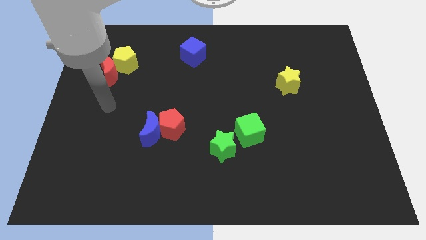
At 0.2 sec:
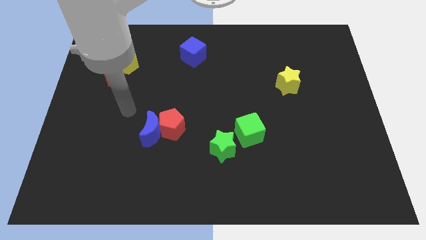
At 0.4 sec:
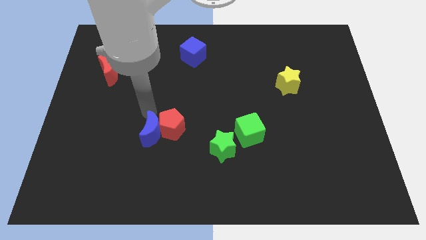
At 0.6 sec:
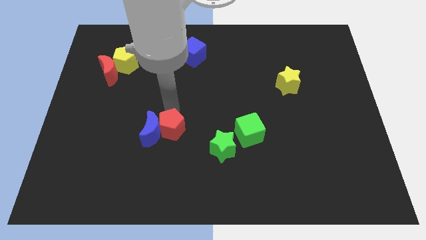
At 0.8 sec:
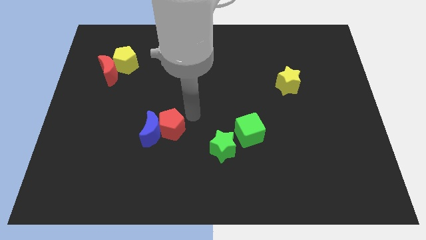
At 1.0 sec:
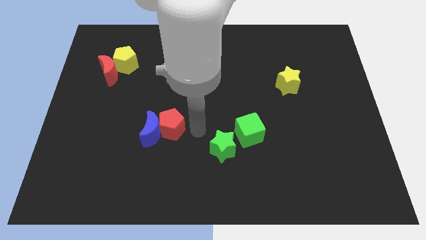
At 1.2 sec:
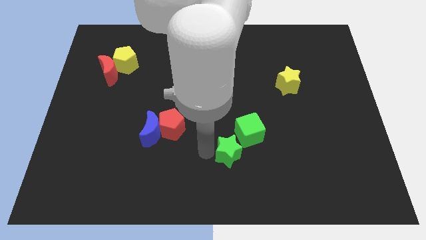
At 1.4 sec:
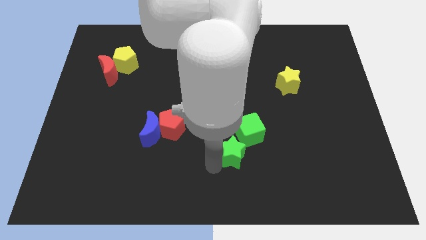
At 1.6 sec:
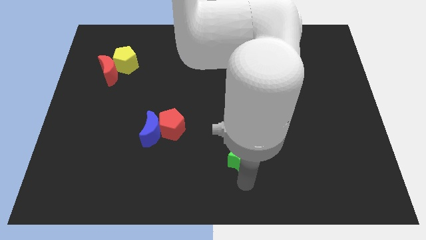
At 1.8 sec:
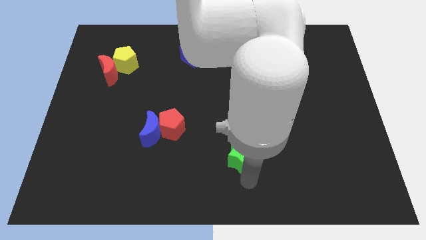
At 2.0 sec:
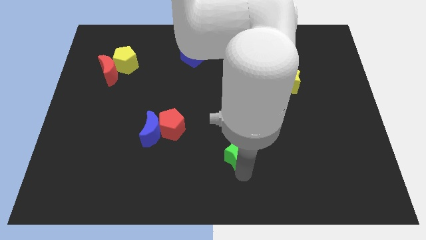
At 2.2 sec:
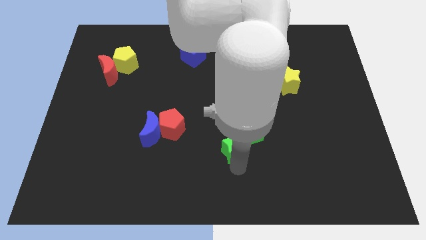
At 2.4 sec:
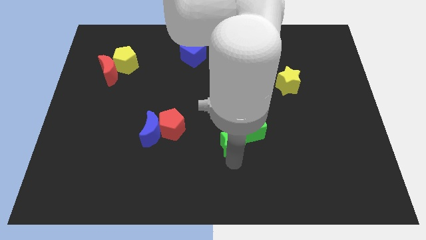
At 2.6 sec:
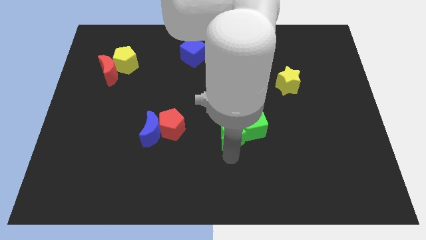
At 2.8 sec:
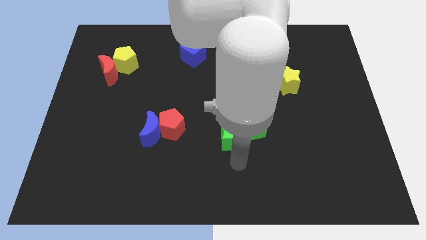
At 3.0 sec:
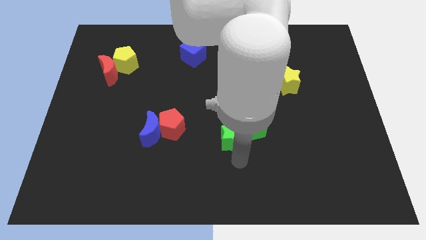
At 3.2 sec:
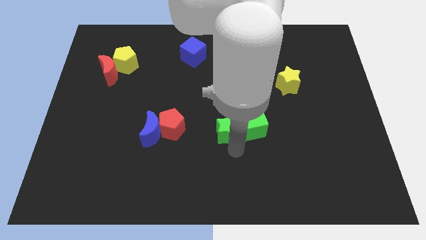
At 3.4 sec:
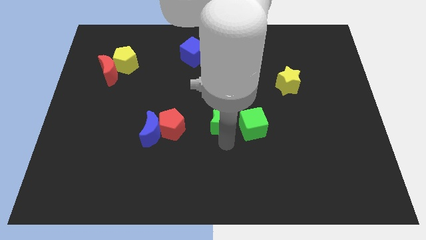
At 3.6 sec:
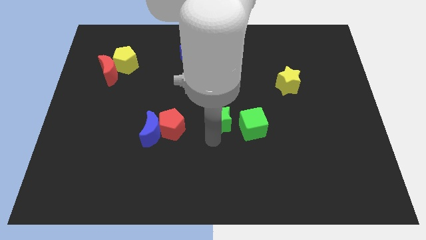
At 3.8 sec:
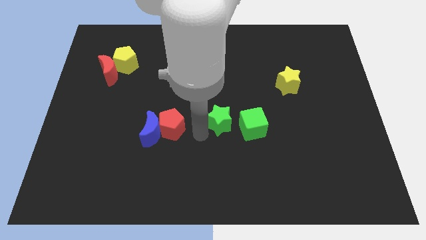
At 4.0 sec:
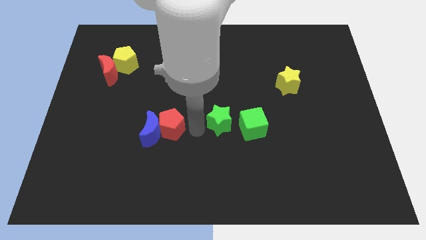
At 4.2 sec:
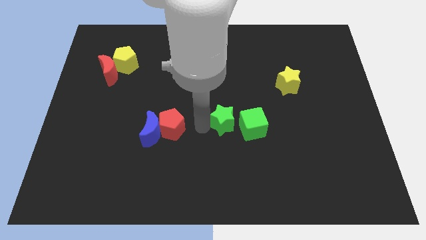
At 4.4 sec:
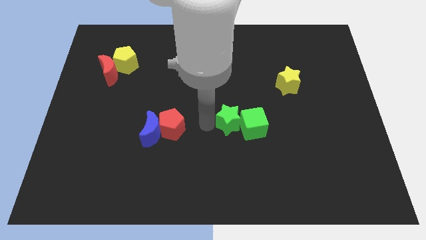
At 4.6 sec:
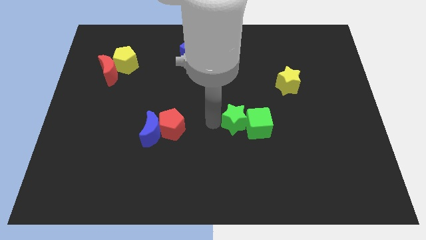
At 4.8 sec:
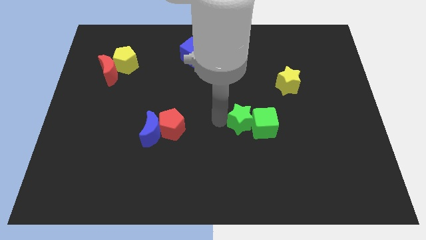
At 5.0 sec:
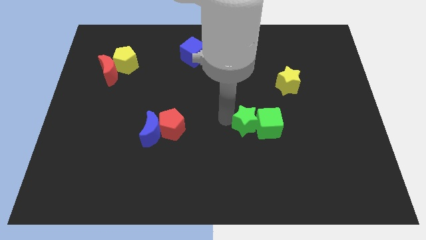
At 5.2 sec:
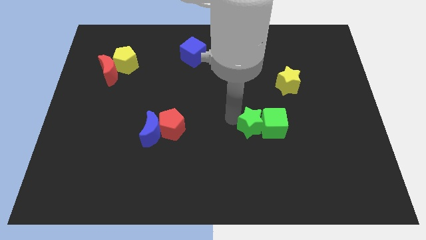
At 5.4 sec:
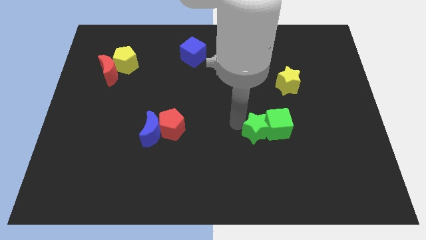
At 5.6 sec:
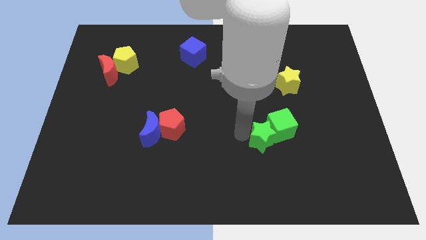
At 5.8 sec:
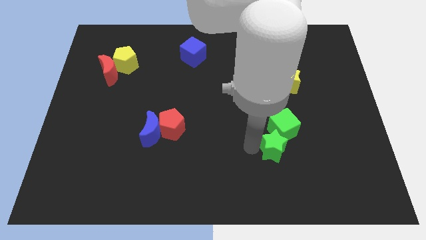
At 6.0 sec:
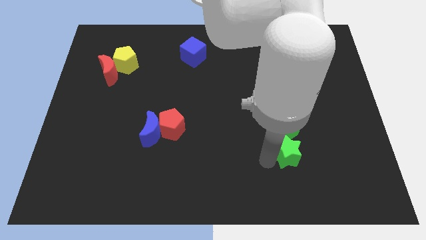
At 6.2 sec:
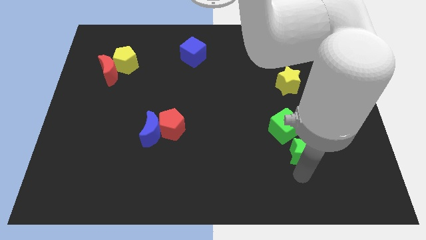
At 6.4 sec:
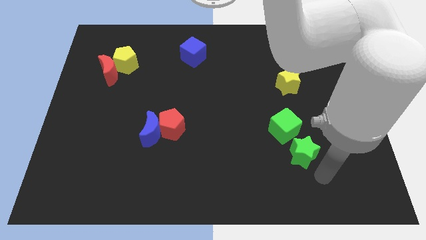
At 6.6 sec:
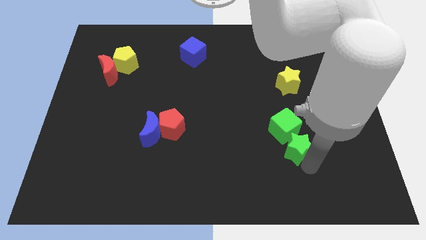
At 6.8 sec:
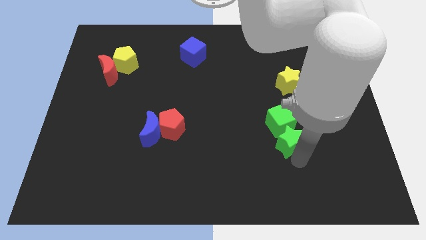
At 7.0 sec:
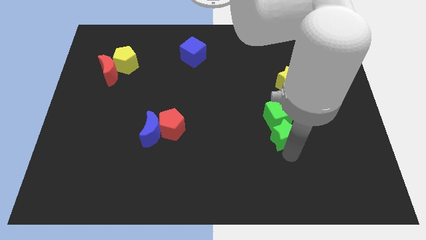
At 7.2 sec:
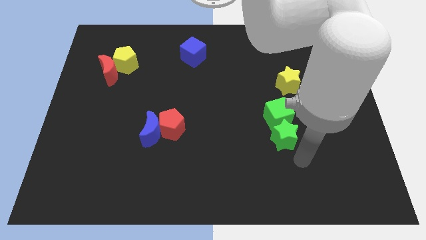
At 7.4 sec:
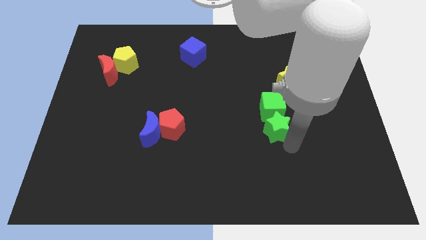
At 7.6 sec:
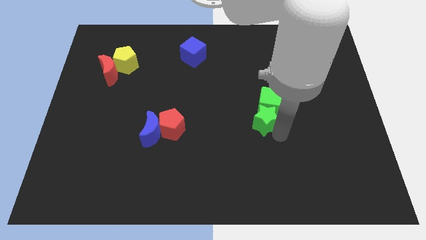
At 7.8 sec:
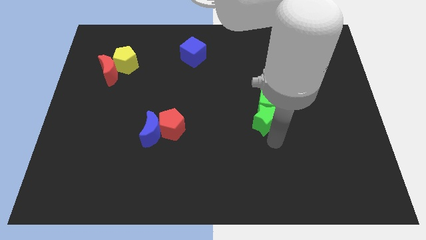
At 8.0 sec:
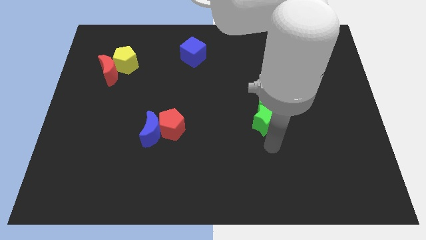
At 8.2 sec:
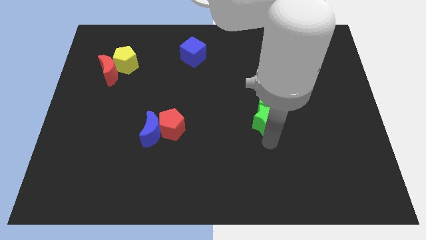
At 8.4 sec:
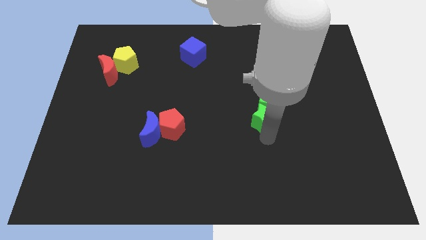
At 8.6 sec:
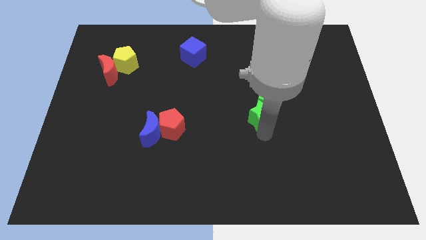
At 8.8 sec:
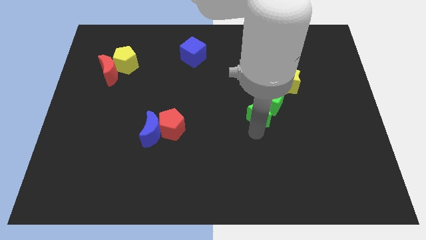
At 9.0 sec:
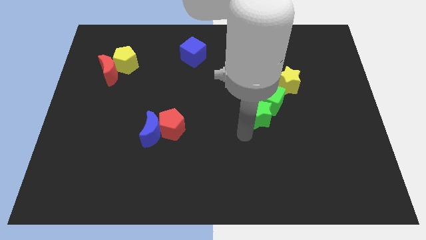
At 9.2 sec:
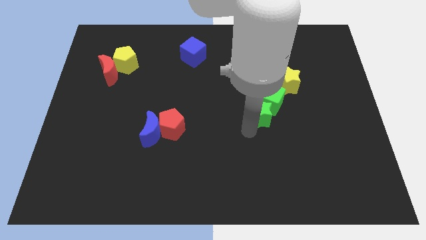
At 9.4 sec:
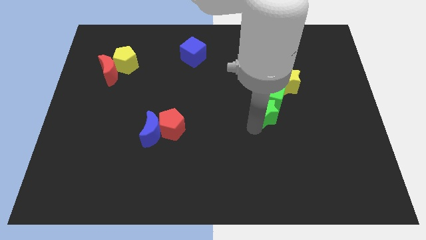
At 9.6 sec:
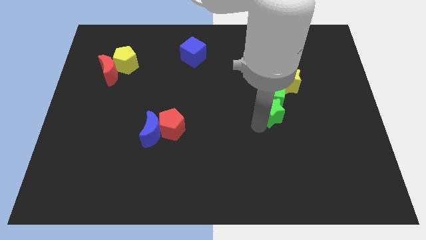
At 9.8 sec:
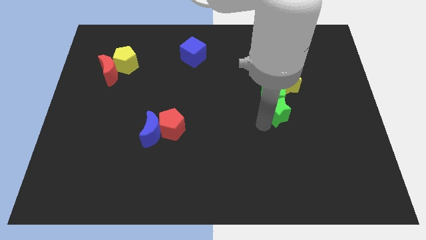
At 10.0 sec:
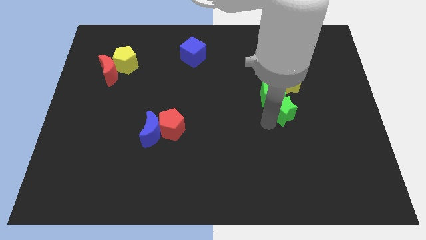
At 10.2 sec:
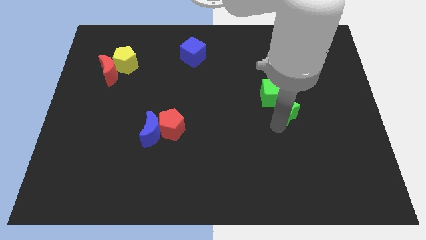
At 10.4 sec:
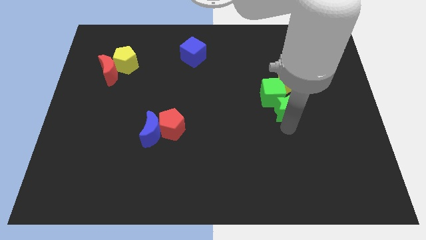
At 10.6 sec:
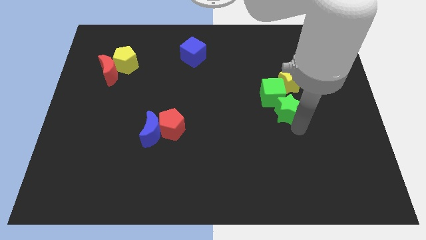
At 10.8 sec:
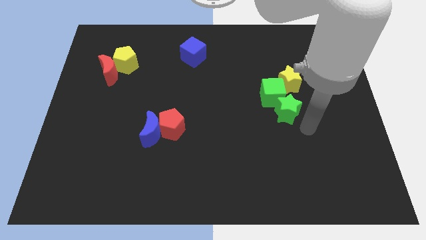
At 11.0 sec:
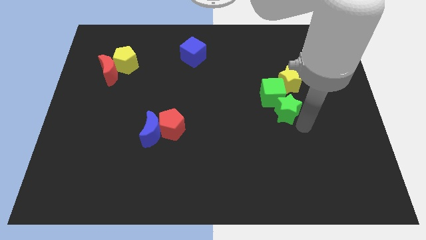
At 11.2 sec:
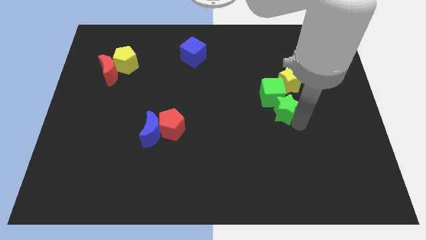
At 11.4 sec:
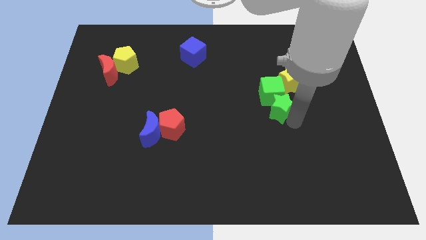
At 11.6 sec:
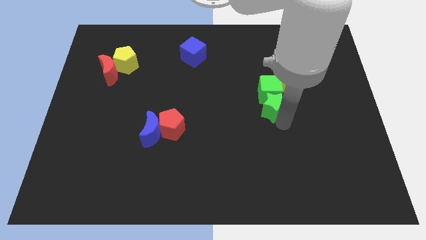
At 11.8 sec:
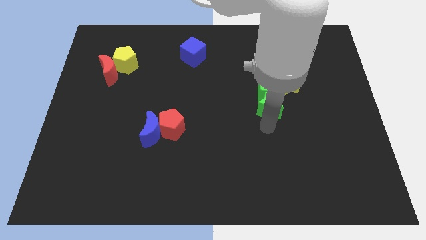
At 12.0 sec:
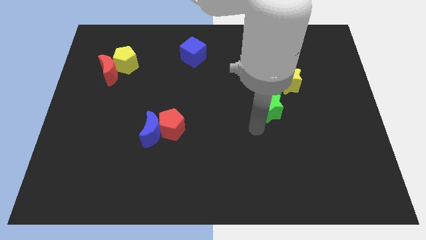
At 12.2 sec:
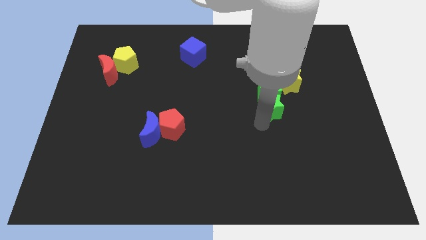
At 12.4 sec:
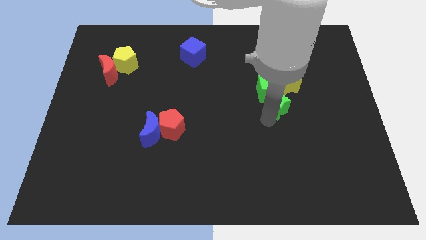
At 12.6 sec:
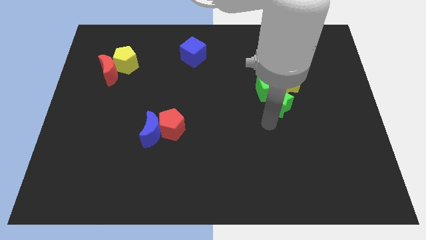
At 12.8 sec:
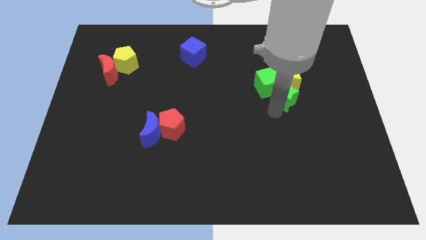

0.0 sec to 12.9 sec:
move the green star towards the yellow star
